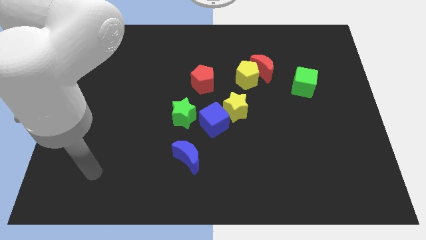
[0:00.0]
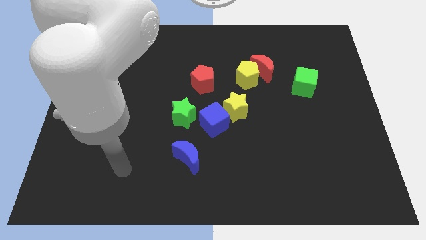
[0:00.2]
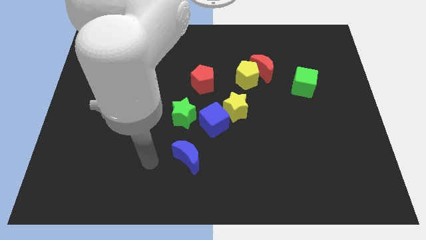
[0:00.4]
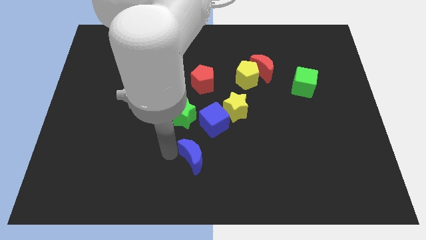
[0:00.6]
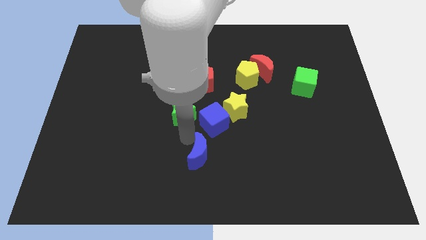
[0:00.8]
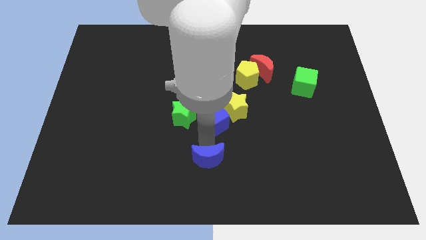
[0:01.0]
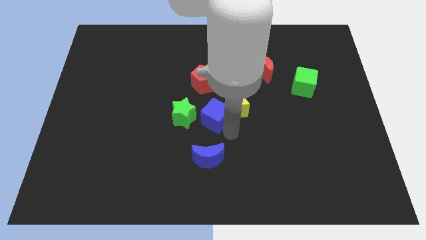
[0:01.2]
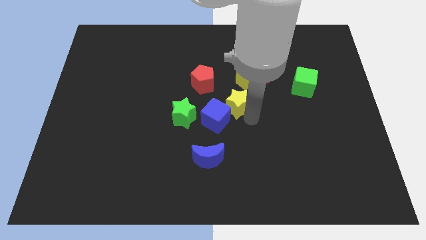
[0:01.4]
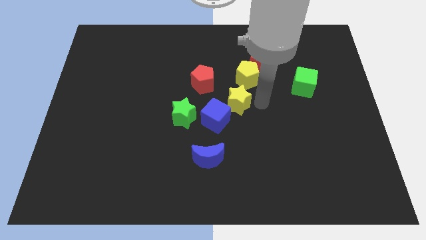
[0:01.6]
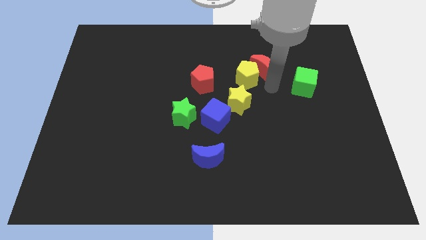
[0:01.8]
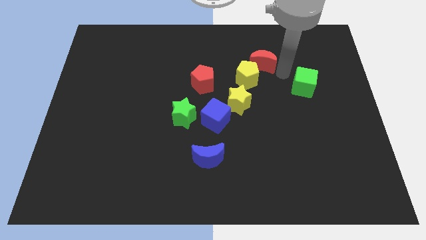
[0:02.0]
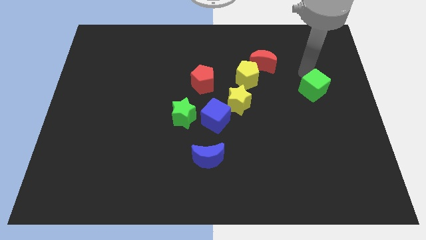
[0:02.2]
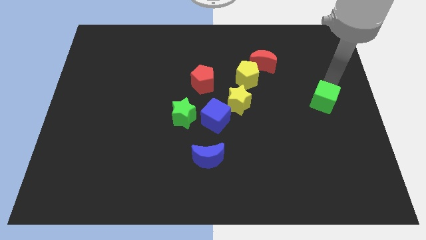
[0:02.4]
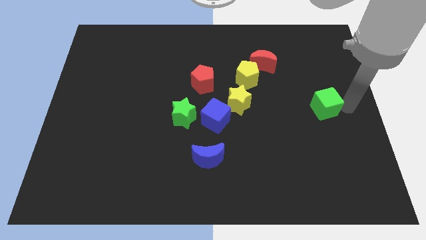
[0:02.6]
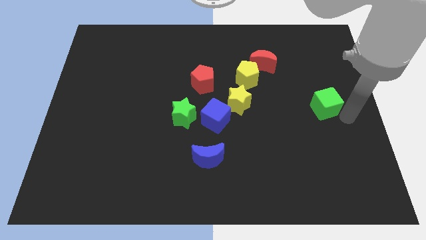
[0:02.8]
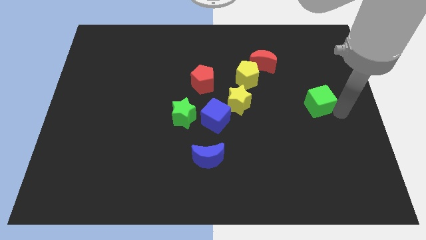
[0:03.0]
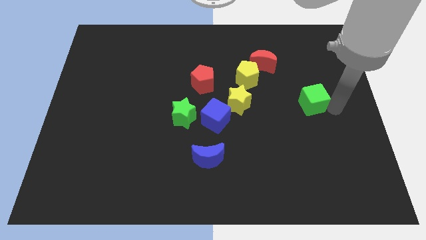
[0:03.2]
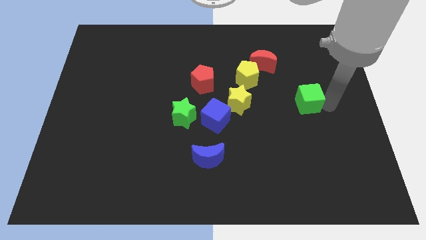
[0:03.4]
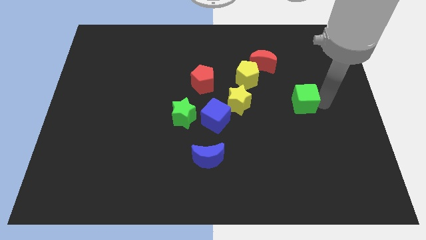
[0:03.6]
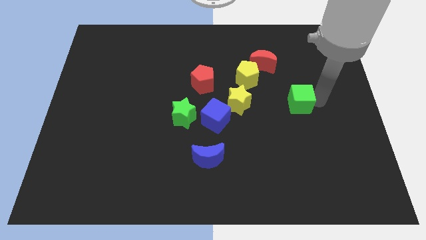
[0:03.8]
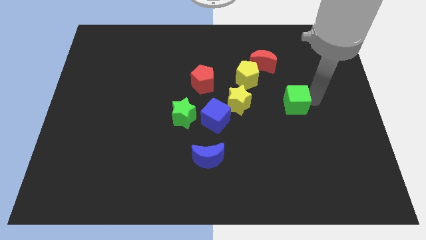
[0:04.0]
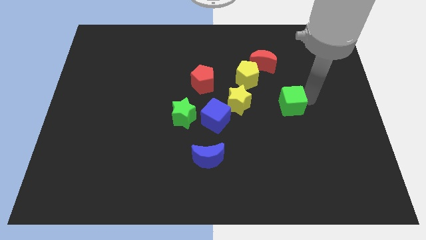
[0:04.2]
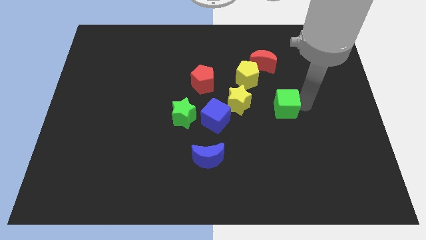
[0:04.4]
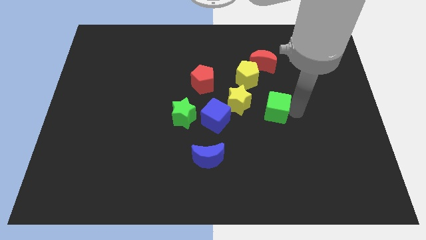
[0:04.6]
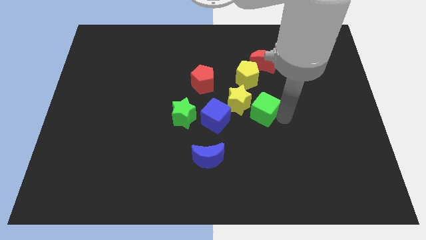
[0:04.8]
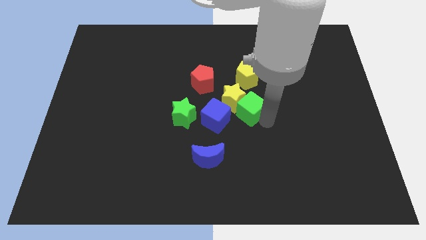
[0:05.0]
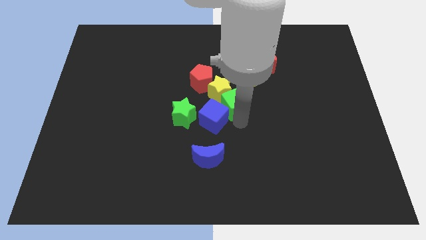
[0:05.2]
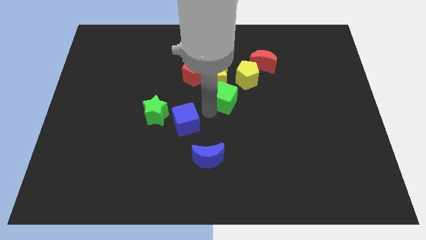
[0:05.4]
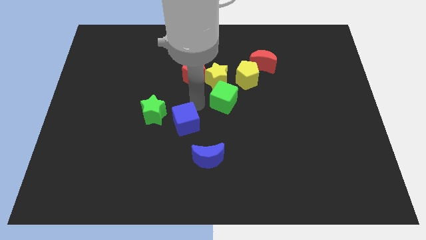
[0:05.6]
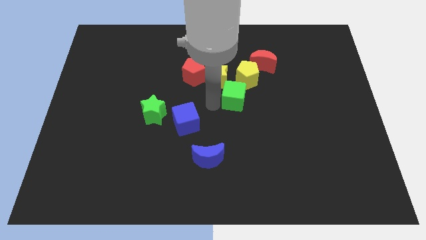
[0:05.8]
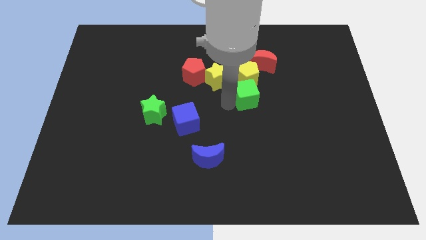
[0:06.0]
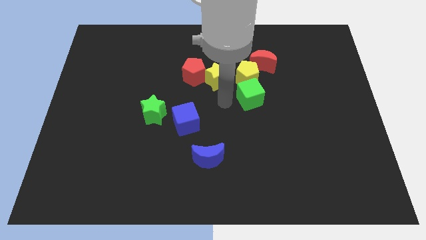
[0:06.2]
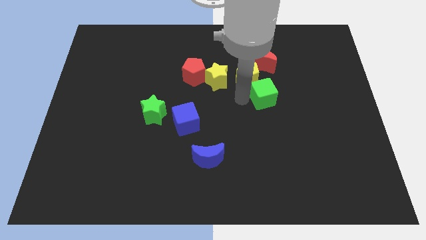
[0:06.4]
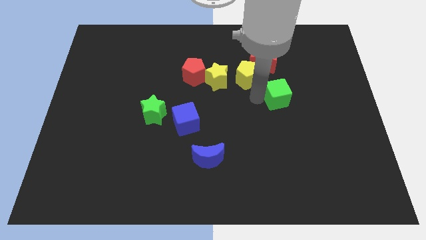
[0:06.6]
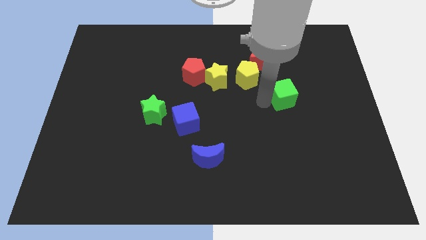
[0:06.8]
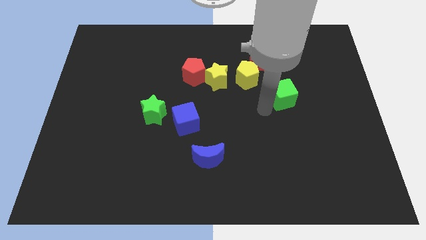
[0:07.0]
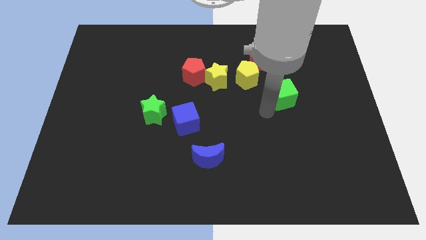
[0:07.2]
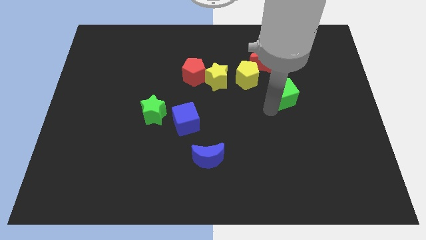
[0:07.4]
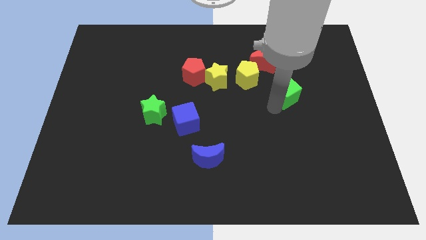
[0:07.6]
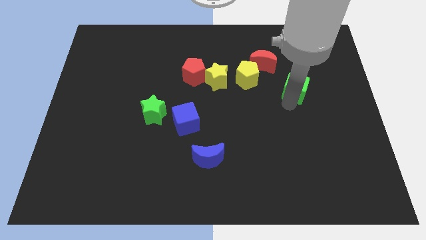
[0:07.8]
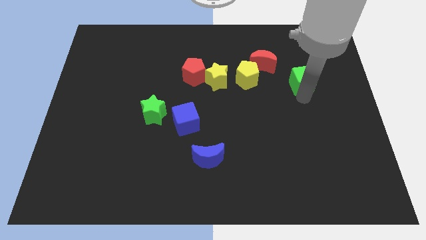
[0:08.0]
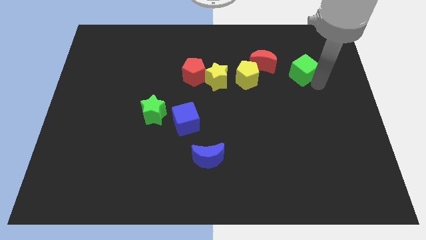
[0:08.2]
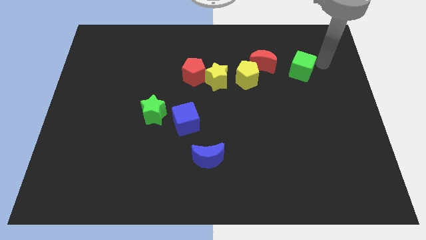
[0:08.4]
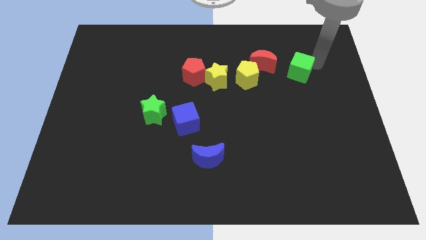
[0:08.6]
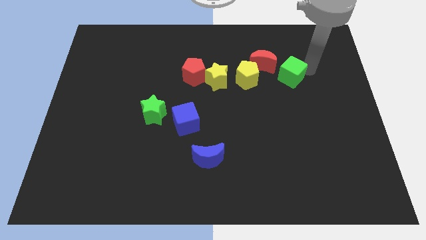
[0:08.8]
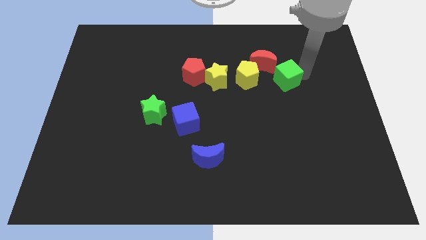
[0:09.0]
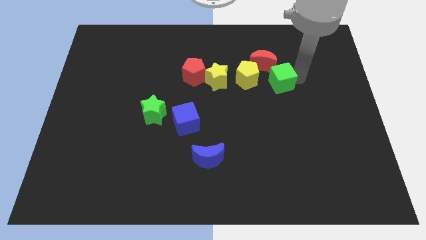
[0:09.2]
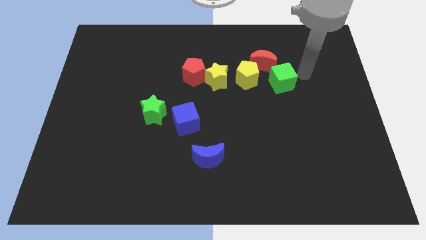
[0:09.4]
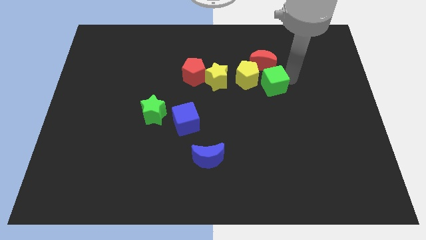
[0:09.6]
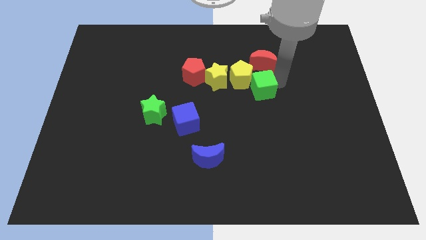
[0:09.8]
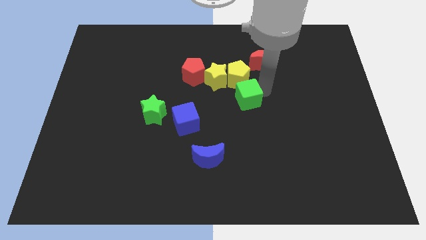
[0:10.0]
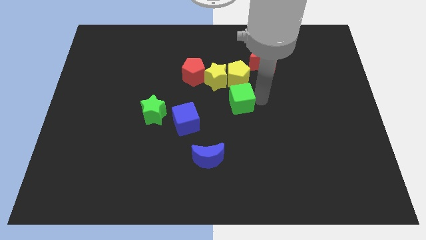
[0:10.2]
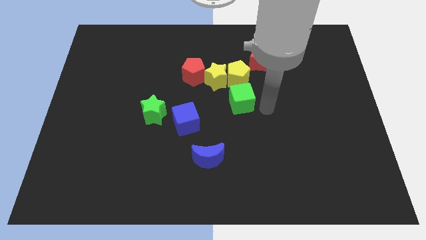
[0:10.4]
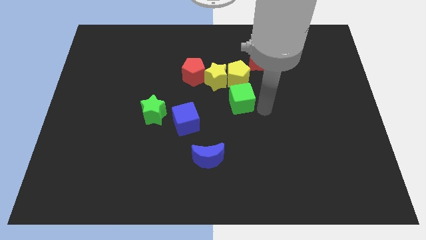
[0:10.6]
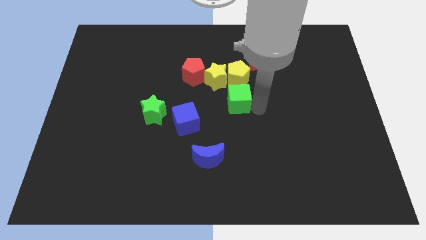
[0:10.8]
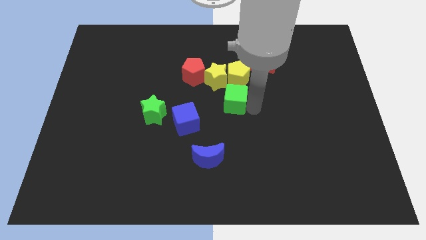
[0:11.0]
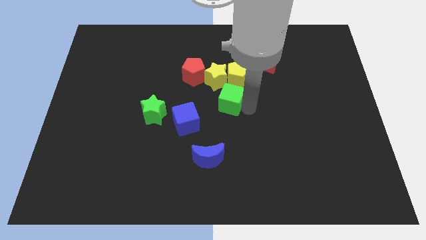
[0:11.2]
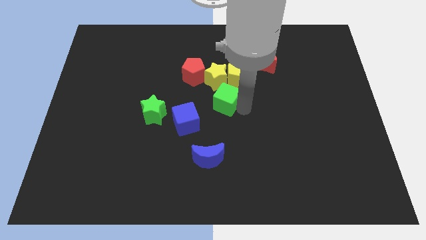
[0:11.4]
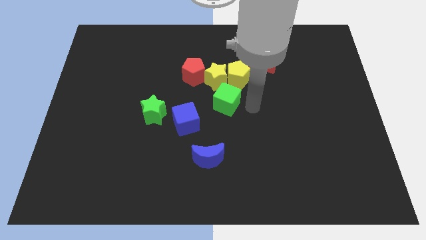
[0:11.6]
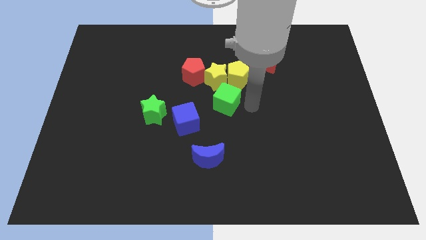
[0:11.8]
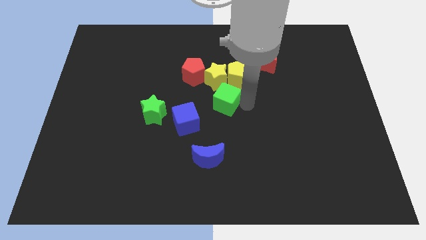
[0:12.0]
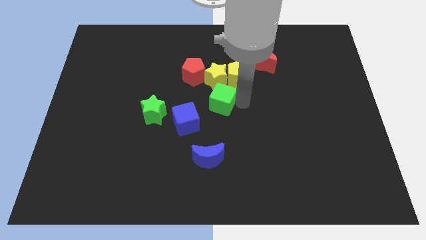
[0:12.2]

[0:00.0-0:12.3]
slide the green cube to the top of the blue moon

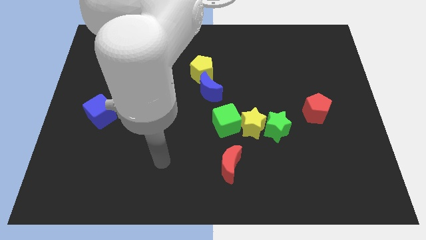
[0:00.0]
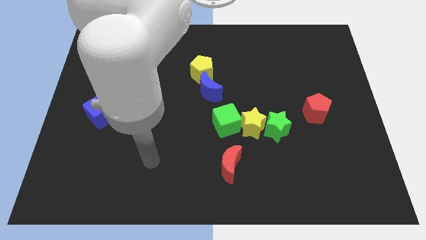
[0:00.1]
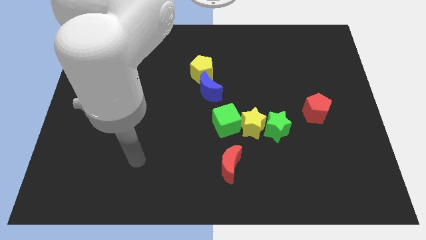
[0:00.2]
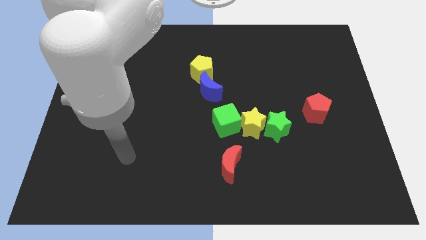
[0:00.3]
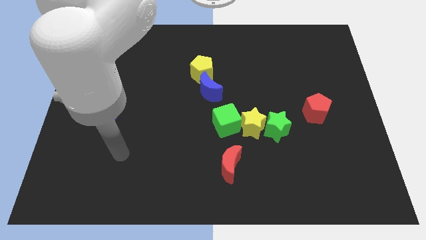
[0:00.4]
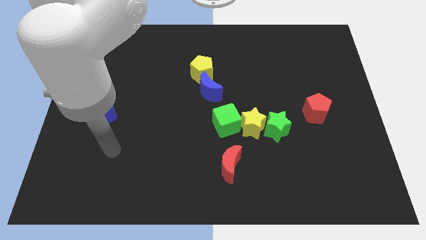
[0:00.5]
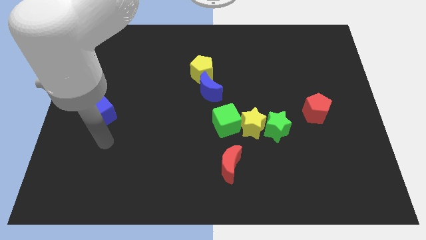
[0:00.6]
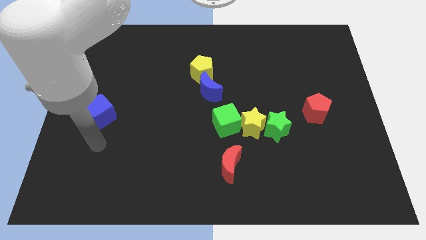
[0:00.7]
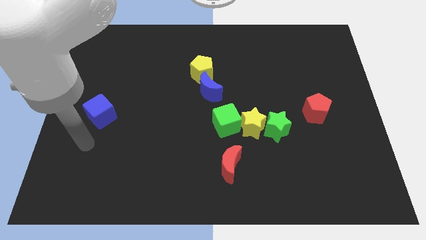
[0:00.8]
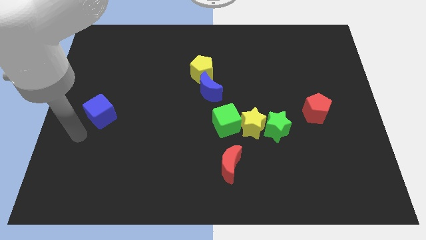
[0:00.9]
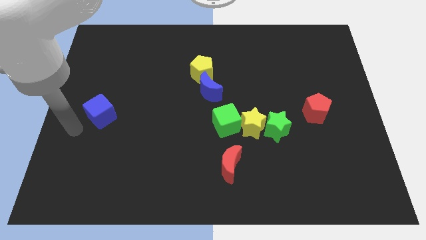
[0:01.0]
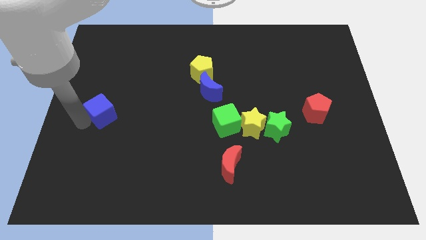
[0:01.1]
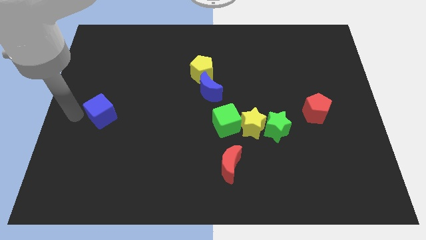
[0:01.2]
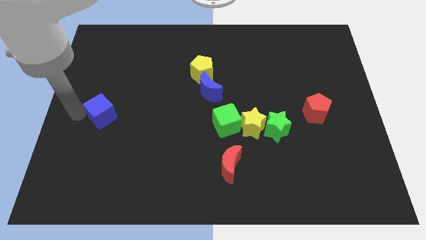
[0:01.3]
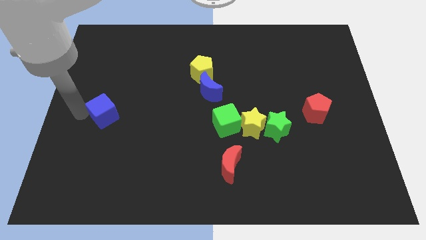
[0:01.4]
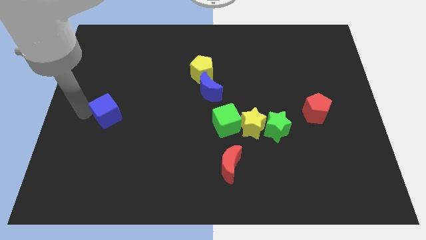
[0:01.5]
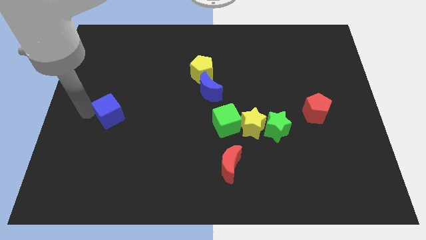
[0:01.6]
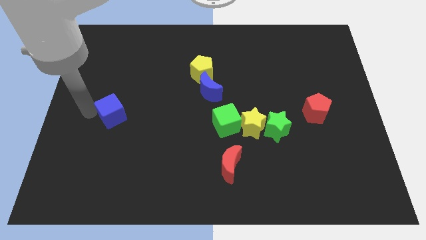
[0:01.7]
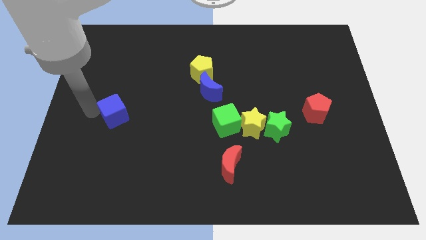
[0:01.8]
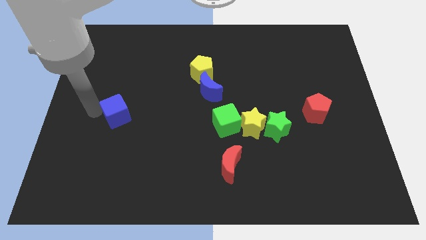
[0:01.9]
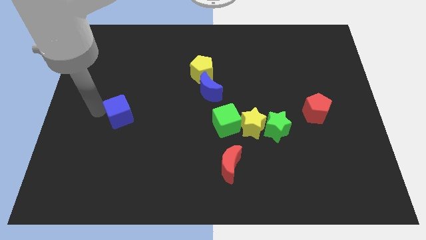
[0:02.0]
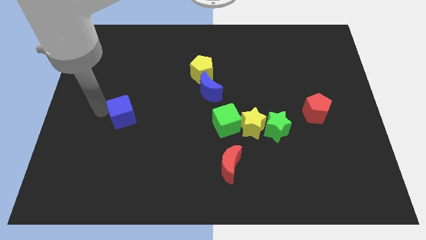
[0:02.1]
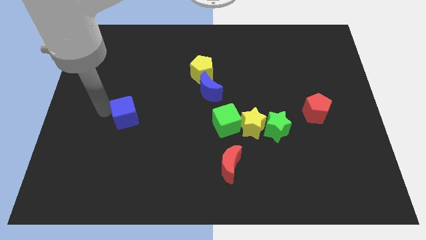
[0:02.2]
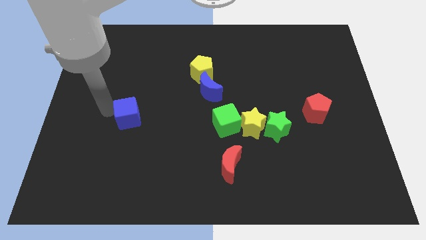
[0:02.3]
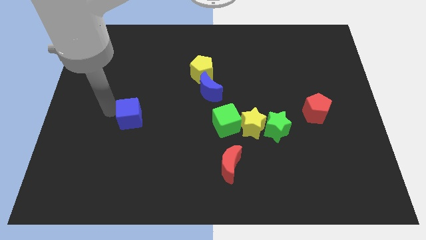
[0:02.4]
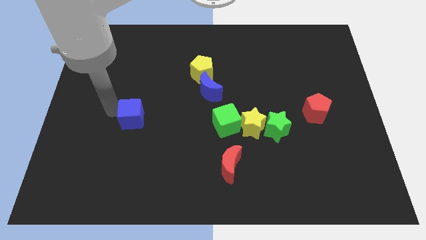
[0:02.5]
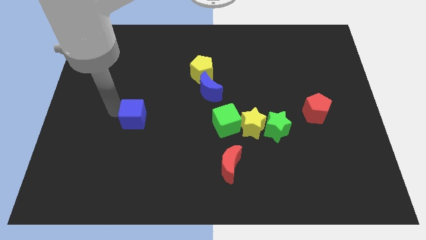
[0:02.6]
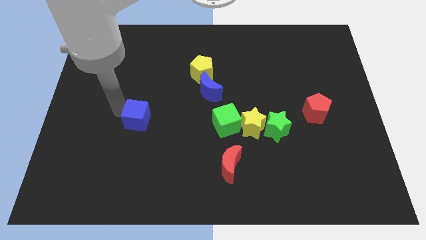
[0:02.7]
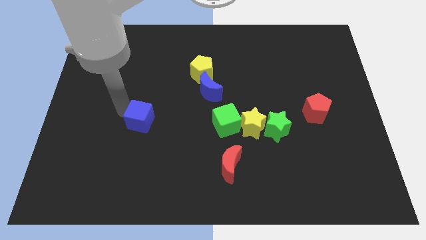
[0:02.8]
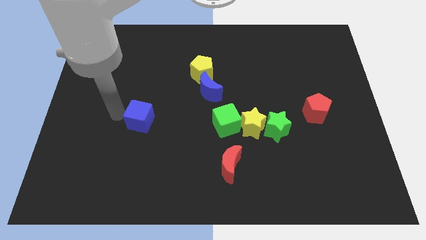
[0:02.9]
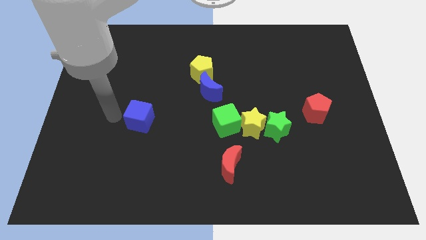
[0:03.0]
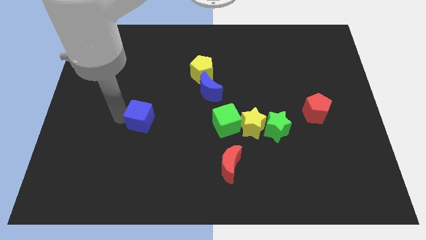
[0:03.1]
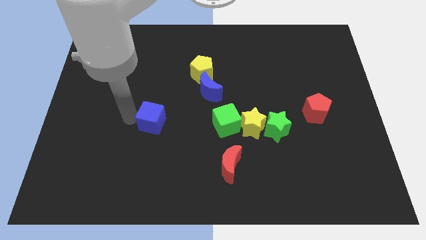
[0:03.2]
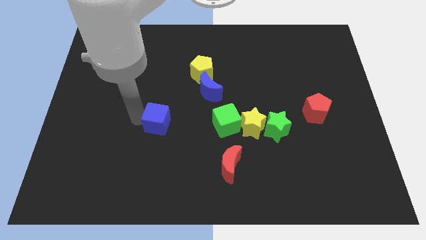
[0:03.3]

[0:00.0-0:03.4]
put the blue cube just left of the green cube
